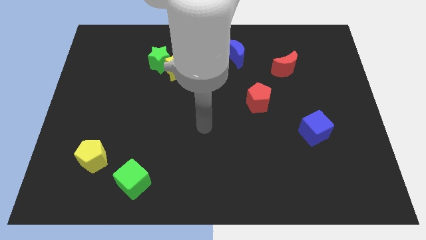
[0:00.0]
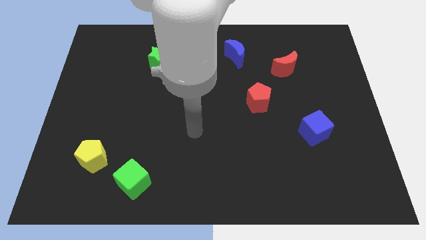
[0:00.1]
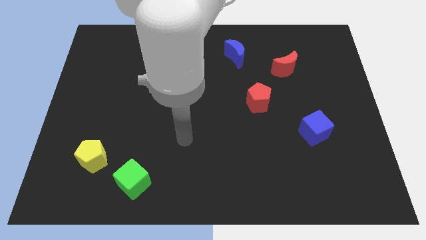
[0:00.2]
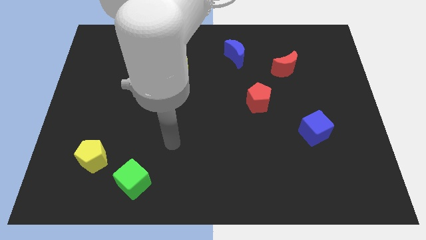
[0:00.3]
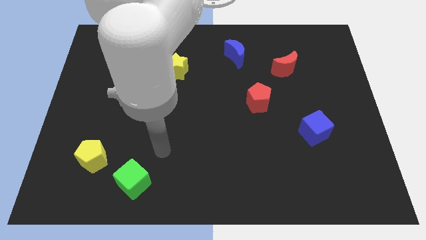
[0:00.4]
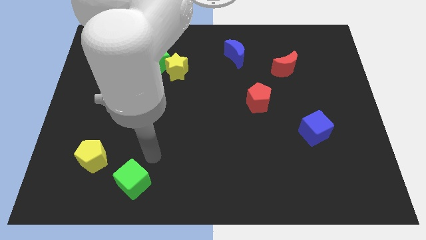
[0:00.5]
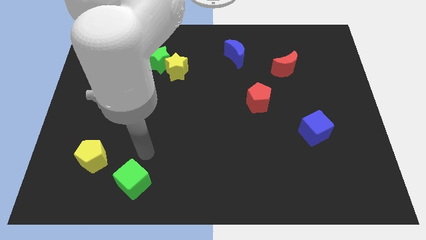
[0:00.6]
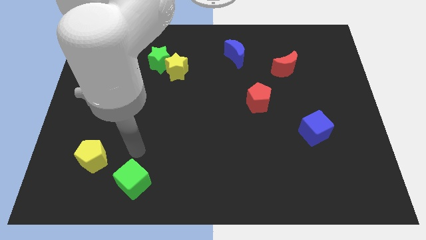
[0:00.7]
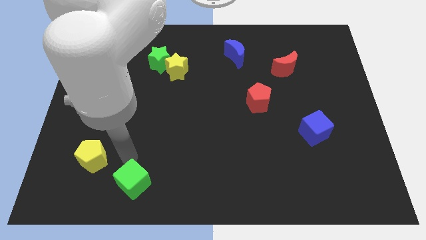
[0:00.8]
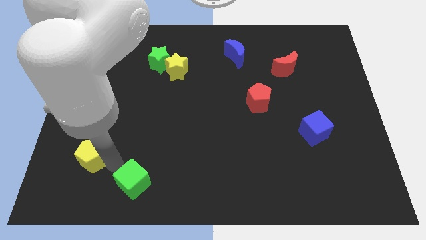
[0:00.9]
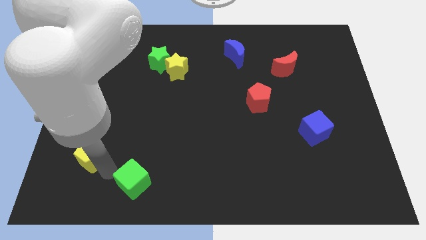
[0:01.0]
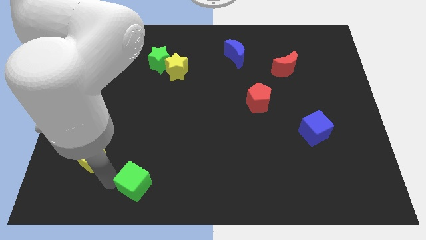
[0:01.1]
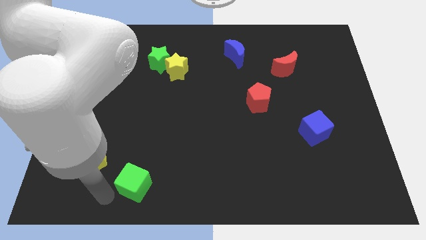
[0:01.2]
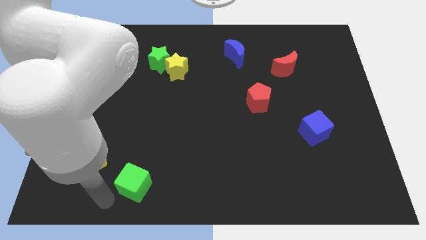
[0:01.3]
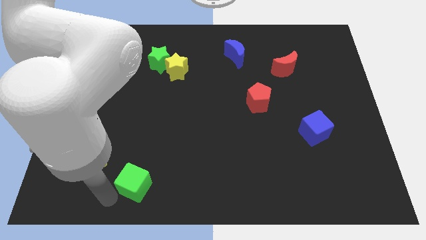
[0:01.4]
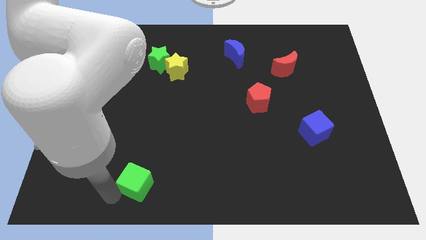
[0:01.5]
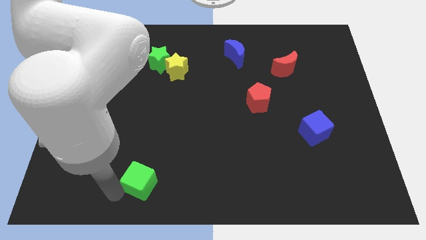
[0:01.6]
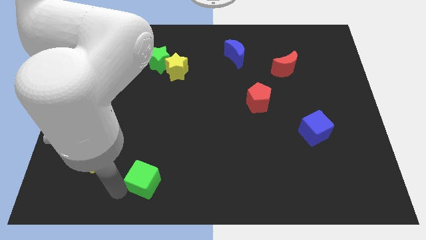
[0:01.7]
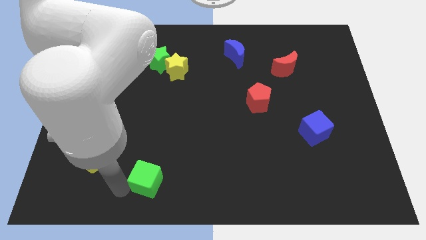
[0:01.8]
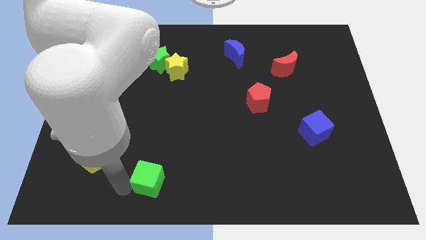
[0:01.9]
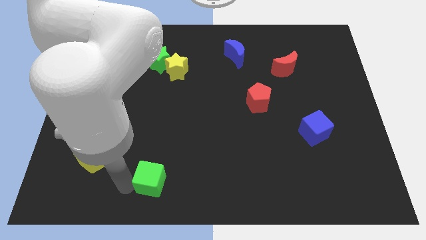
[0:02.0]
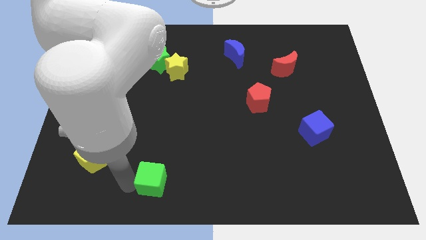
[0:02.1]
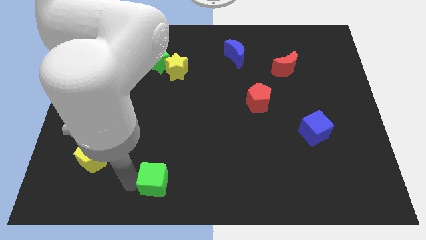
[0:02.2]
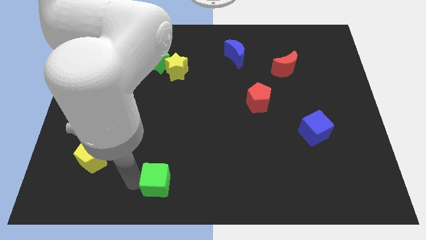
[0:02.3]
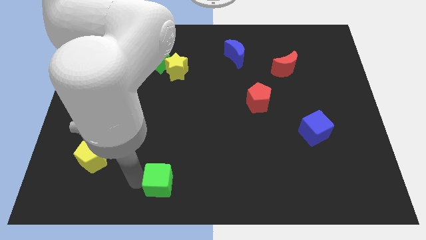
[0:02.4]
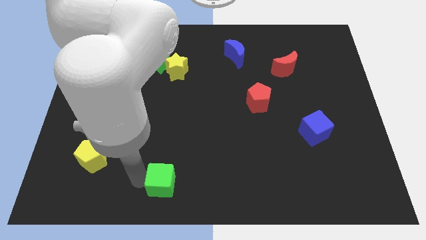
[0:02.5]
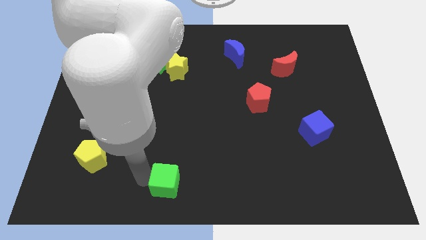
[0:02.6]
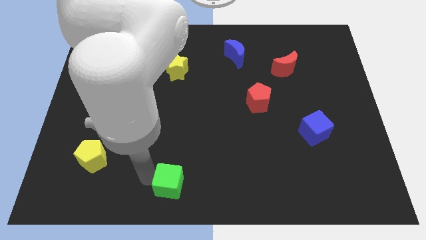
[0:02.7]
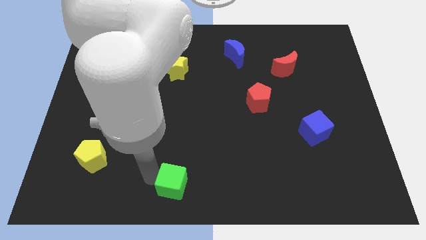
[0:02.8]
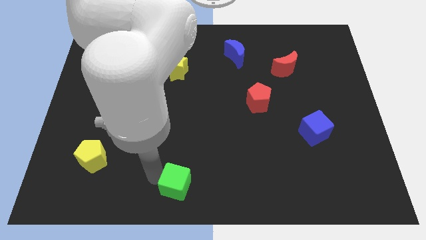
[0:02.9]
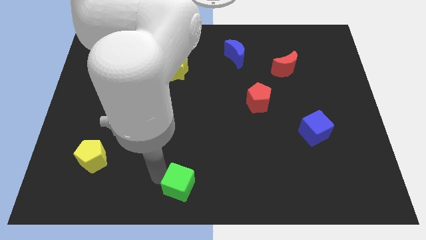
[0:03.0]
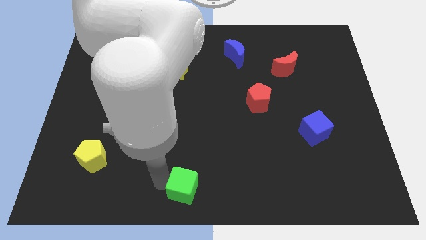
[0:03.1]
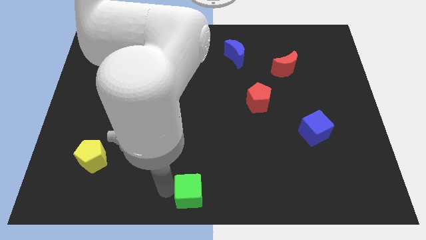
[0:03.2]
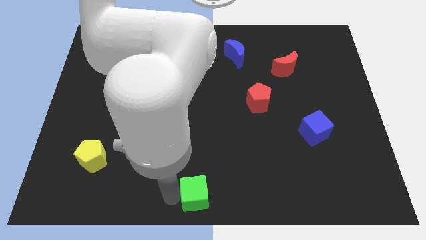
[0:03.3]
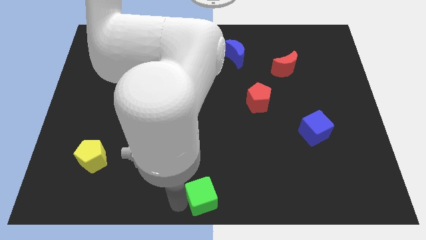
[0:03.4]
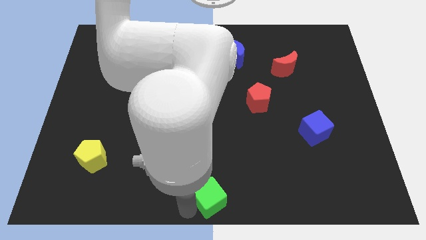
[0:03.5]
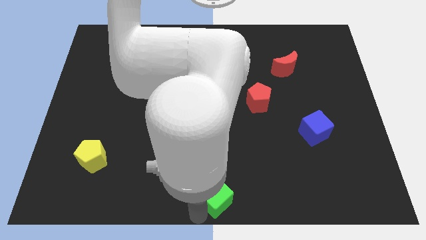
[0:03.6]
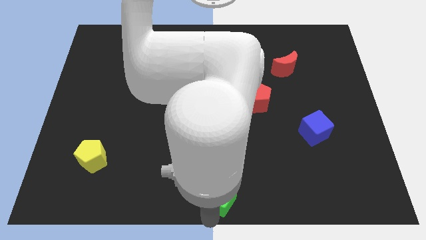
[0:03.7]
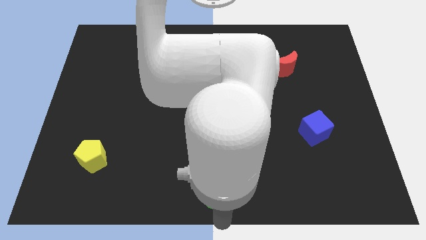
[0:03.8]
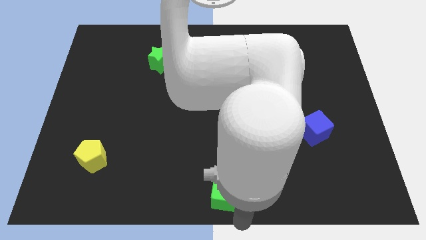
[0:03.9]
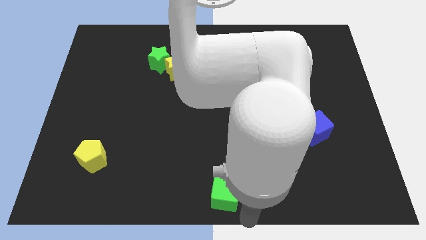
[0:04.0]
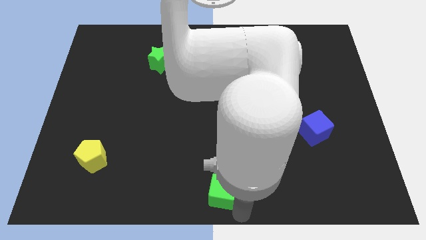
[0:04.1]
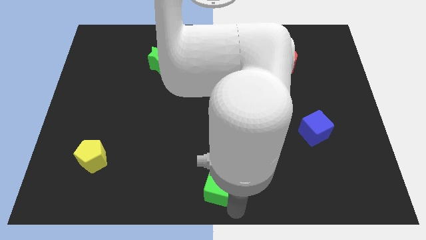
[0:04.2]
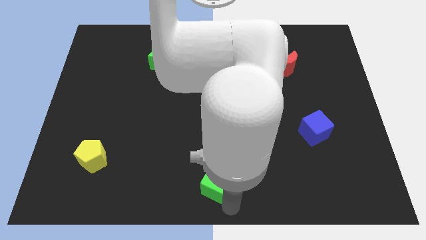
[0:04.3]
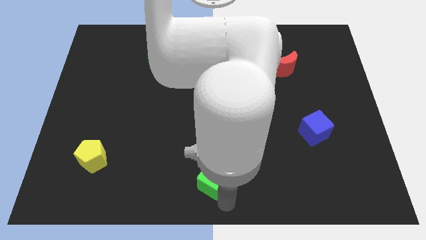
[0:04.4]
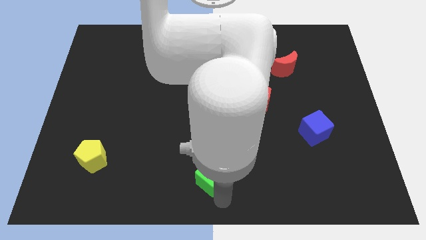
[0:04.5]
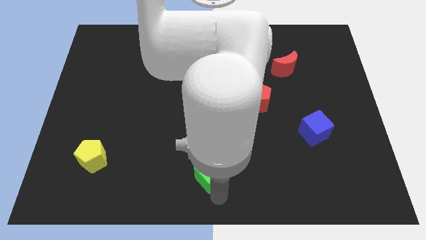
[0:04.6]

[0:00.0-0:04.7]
slide the green cube diagonally up and right a bit

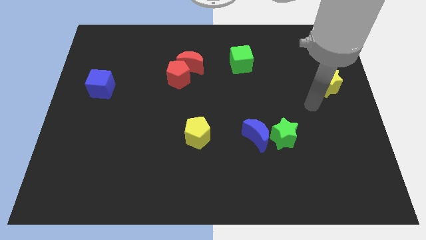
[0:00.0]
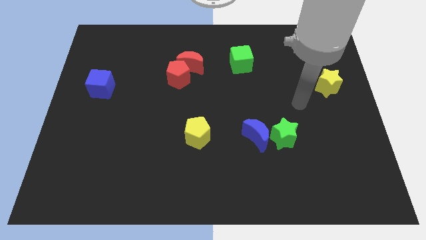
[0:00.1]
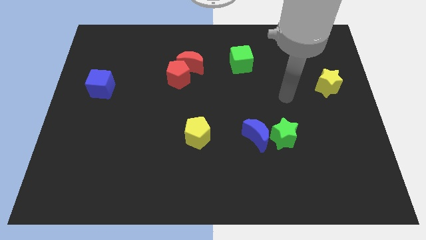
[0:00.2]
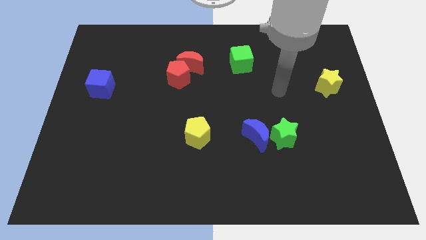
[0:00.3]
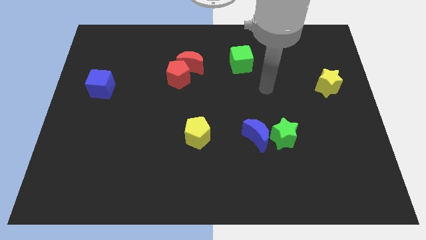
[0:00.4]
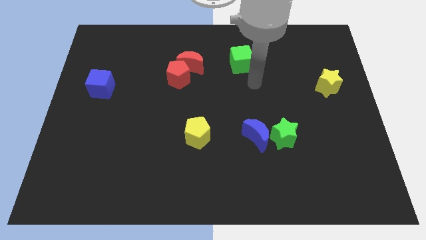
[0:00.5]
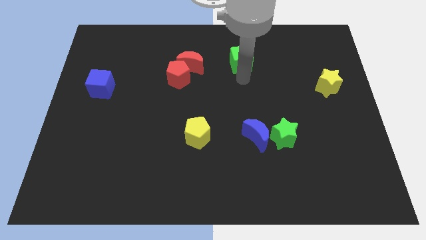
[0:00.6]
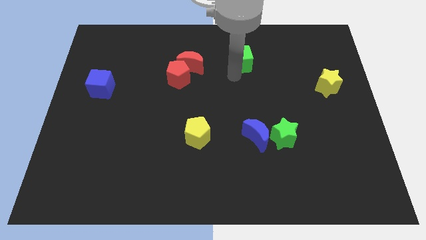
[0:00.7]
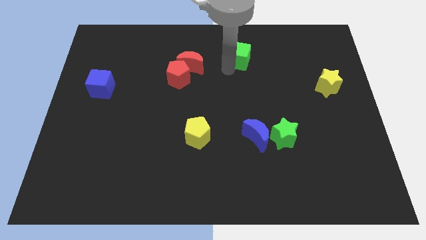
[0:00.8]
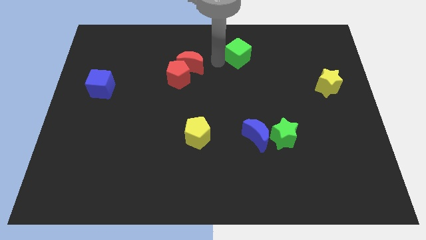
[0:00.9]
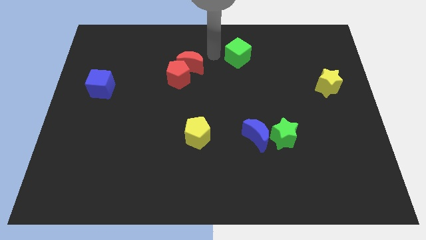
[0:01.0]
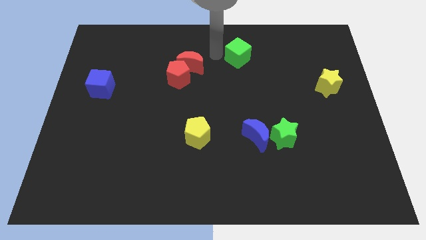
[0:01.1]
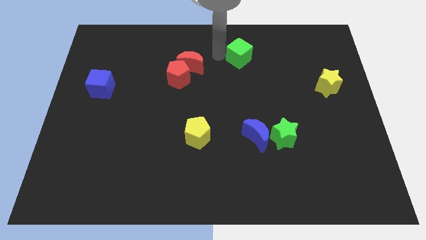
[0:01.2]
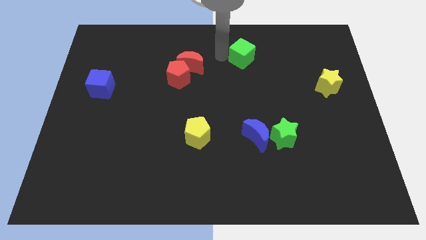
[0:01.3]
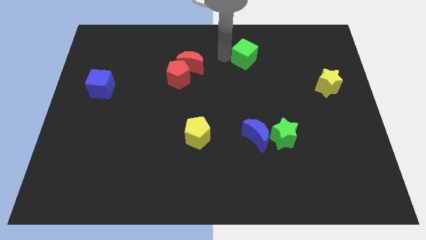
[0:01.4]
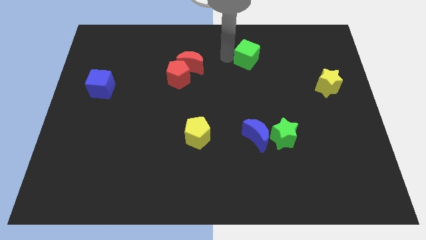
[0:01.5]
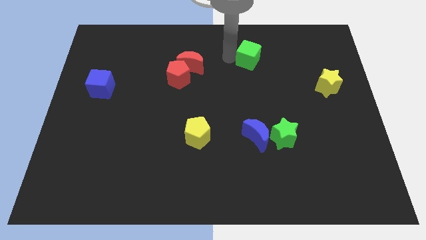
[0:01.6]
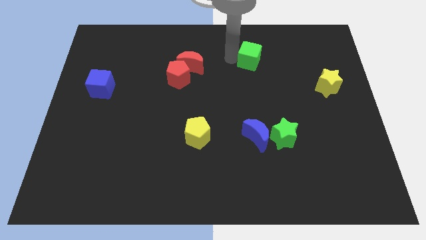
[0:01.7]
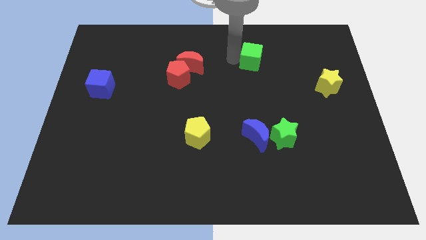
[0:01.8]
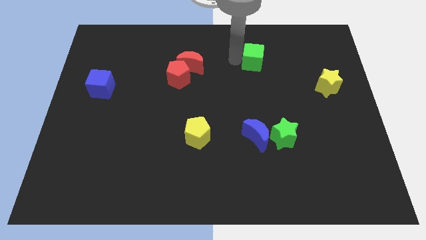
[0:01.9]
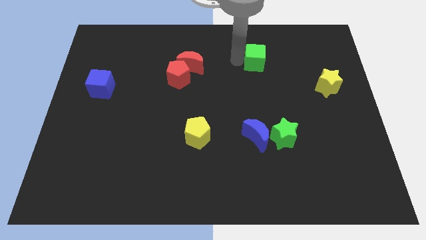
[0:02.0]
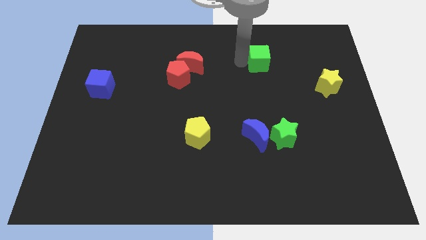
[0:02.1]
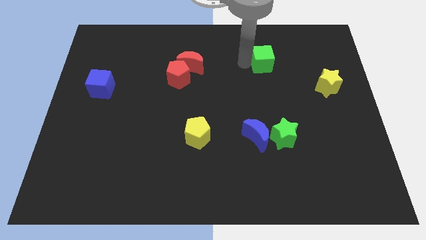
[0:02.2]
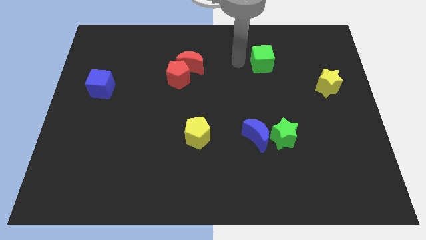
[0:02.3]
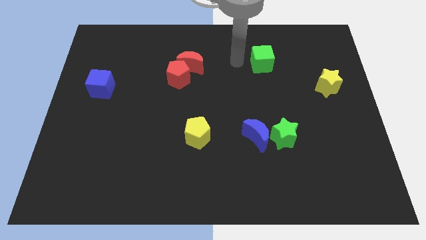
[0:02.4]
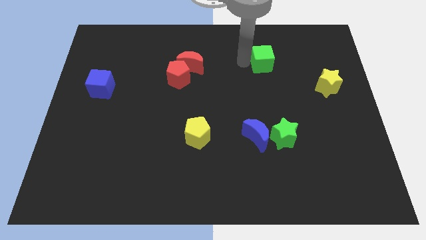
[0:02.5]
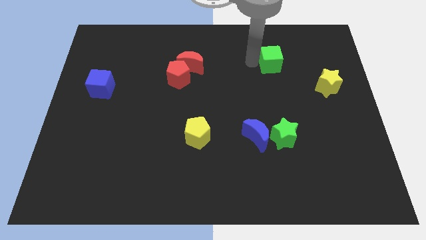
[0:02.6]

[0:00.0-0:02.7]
slightly push the green cube to the right

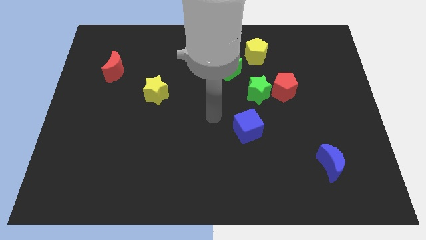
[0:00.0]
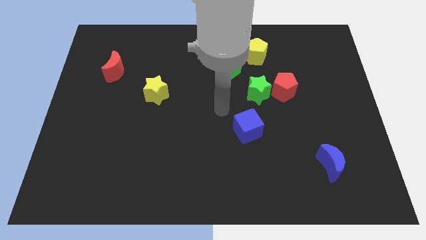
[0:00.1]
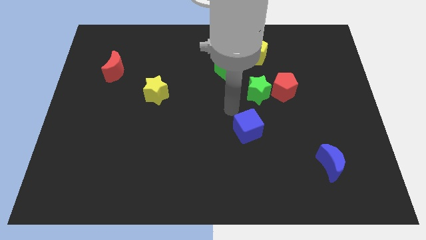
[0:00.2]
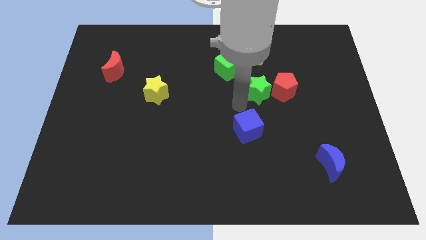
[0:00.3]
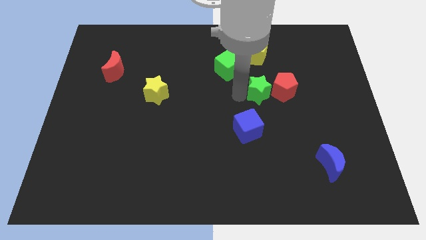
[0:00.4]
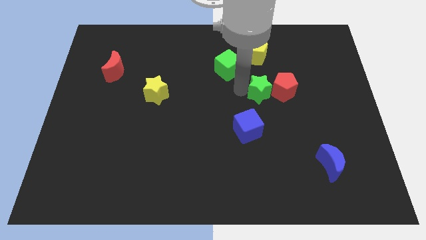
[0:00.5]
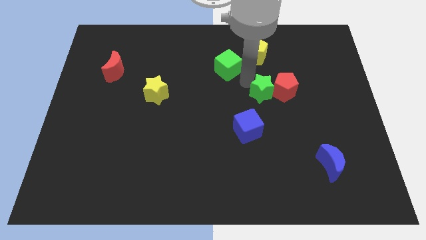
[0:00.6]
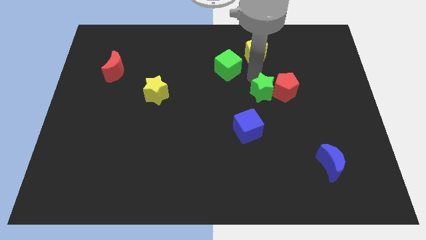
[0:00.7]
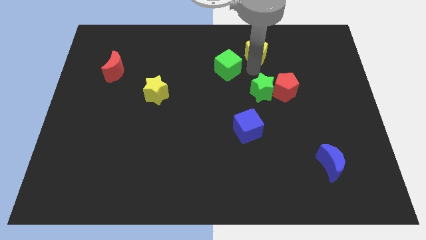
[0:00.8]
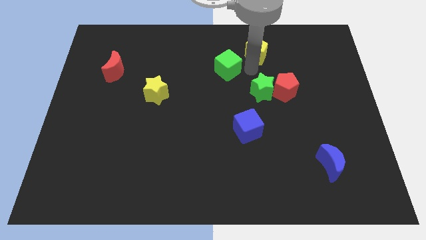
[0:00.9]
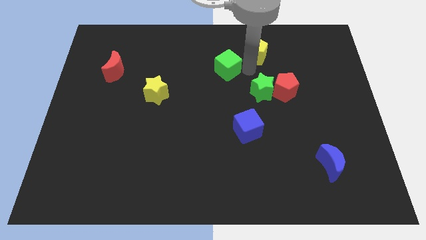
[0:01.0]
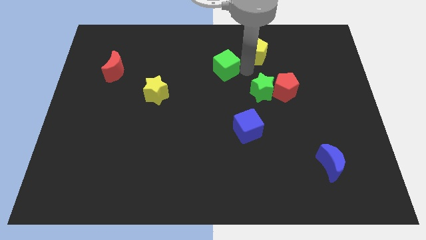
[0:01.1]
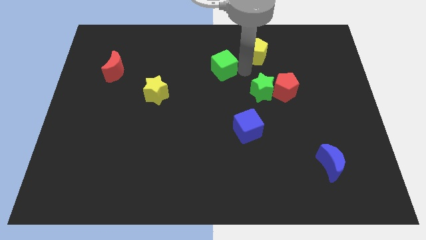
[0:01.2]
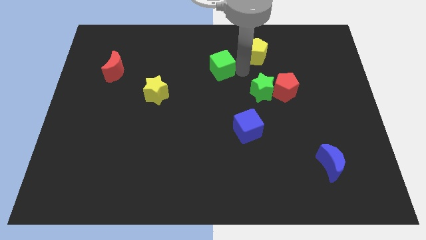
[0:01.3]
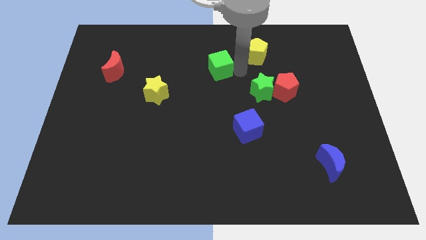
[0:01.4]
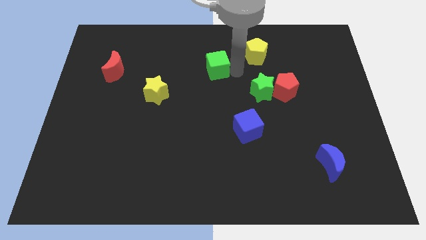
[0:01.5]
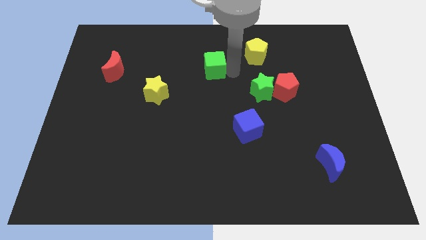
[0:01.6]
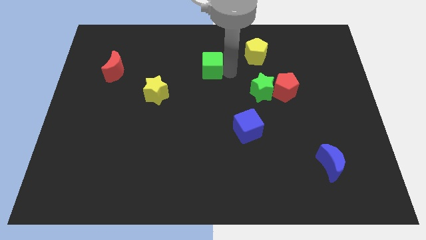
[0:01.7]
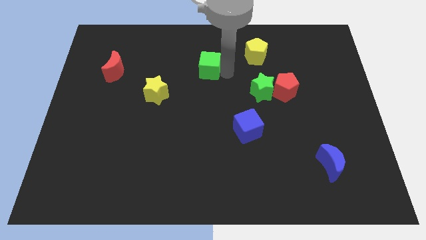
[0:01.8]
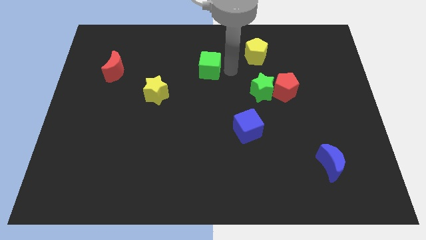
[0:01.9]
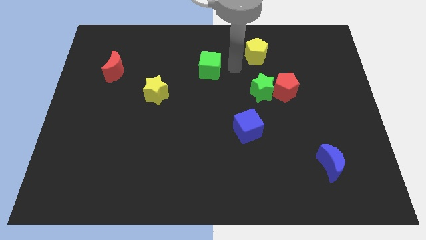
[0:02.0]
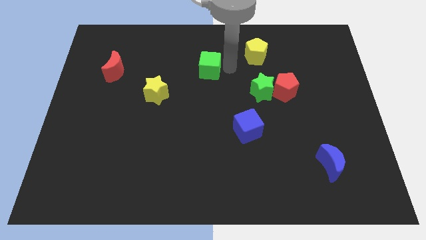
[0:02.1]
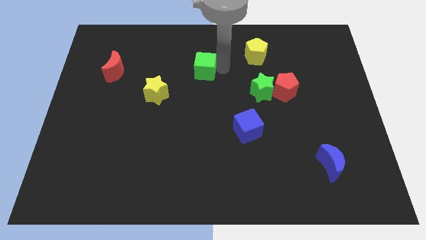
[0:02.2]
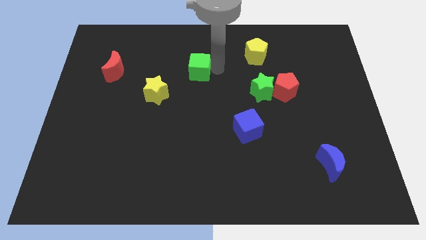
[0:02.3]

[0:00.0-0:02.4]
push the green cube a little bit to the left
